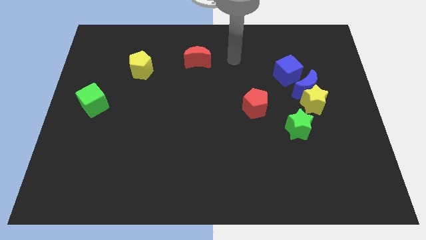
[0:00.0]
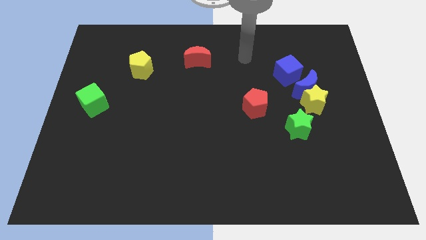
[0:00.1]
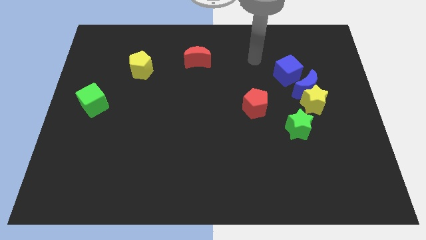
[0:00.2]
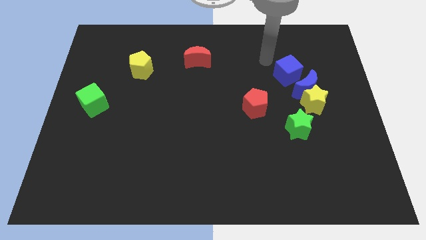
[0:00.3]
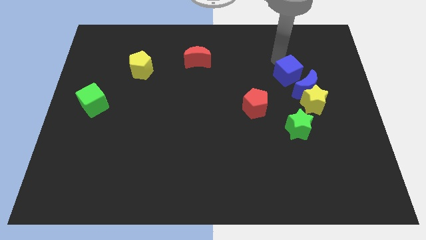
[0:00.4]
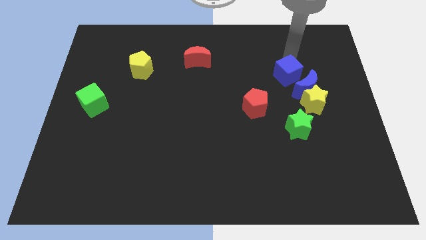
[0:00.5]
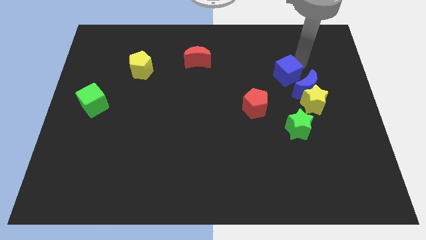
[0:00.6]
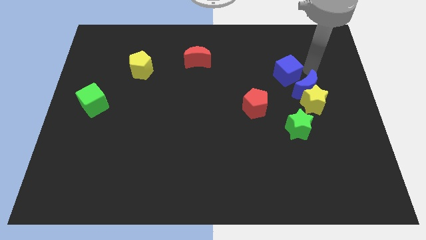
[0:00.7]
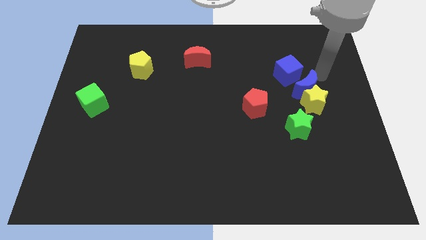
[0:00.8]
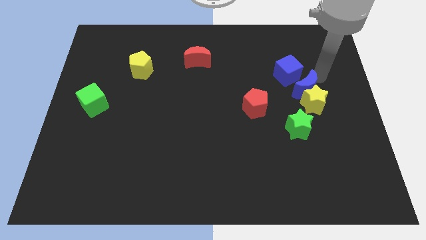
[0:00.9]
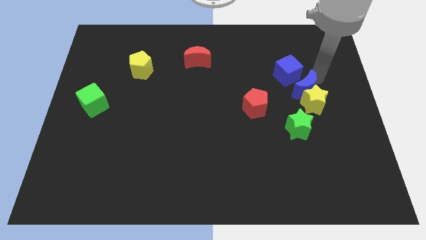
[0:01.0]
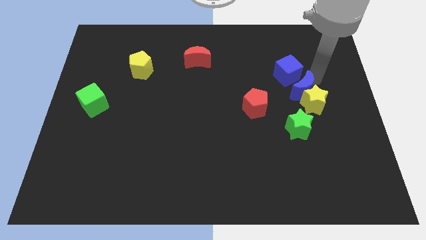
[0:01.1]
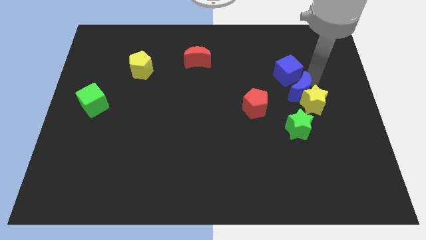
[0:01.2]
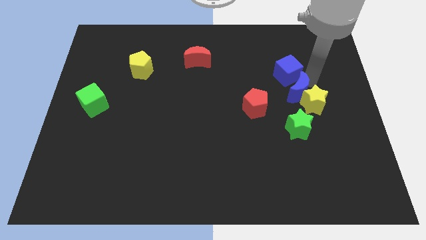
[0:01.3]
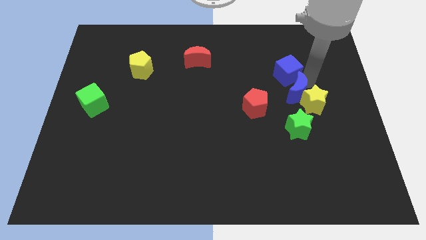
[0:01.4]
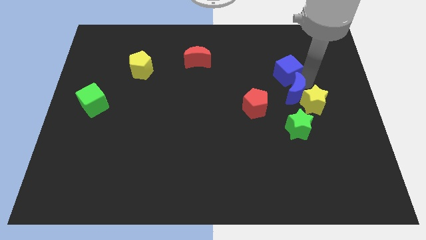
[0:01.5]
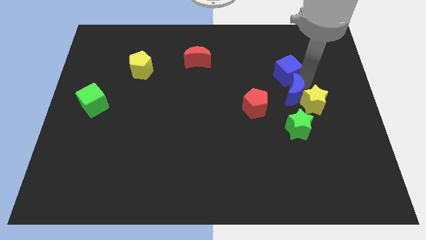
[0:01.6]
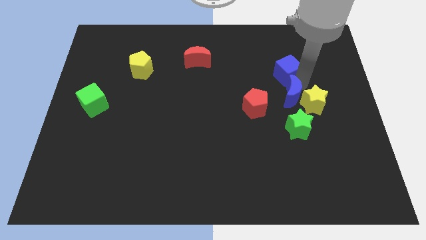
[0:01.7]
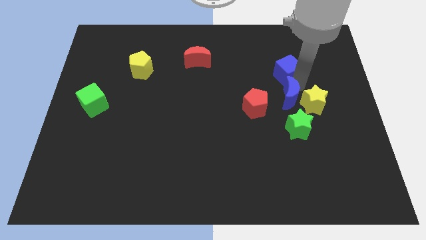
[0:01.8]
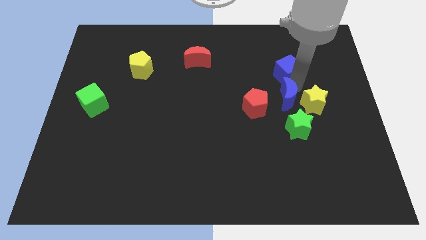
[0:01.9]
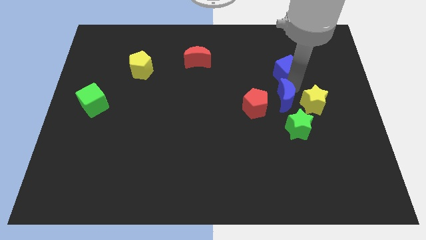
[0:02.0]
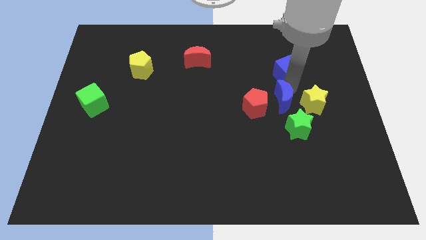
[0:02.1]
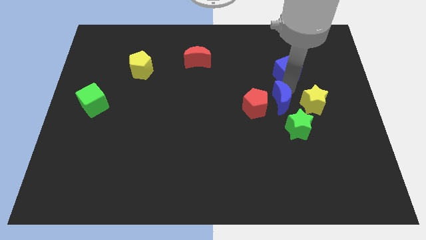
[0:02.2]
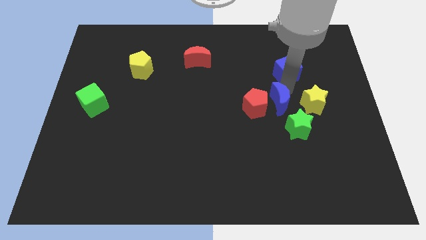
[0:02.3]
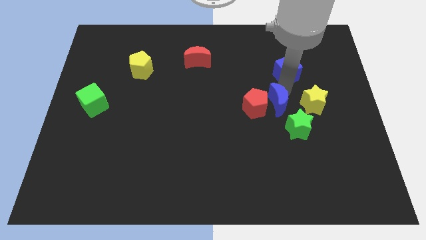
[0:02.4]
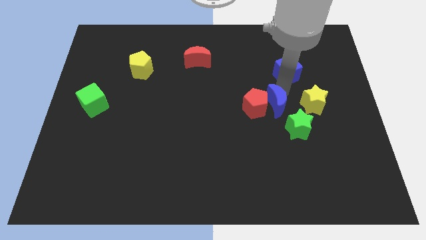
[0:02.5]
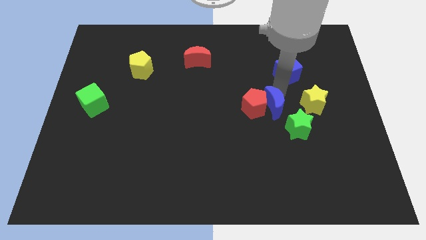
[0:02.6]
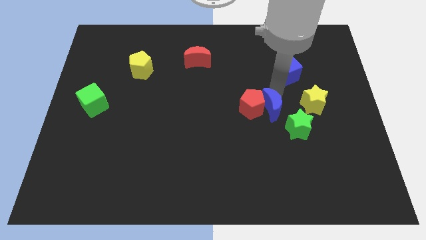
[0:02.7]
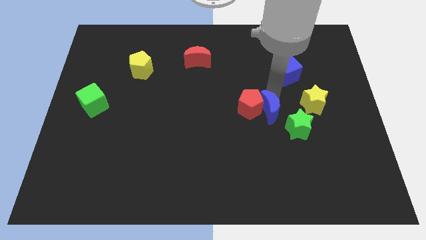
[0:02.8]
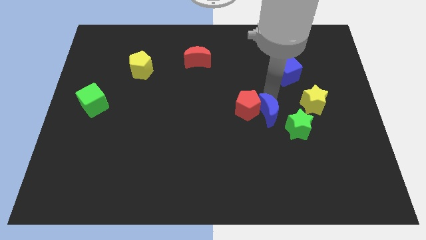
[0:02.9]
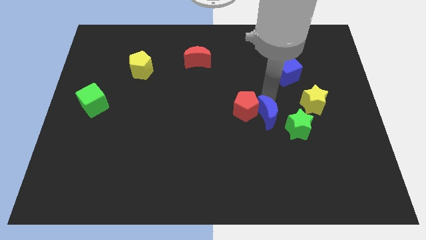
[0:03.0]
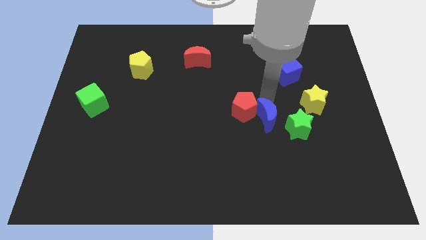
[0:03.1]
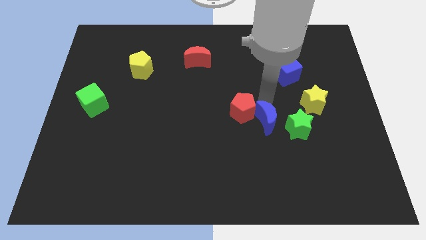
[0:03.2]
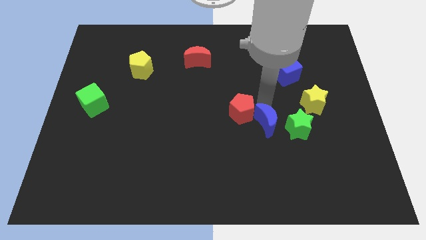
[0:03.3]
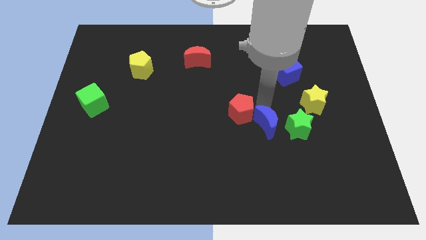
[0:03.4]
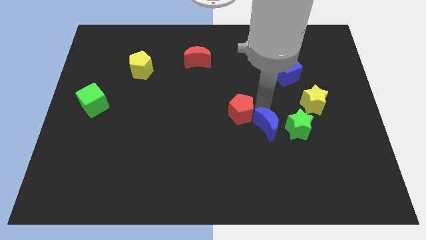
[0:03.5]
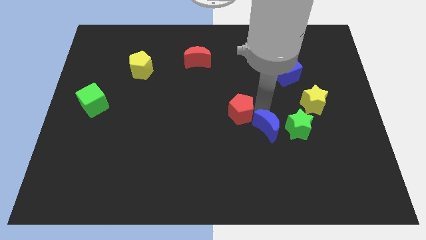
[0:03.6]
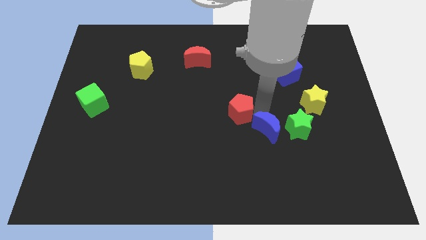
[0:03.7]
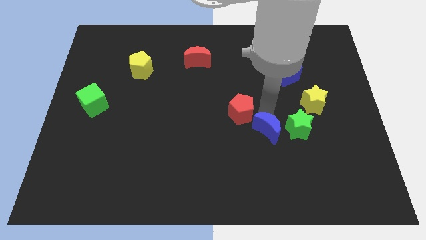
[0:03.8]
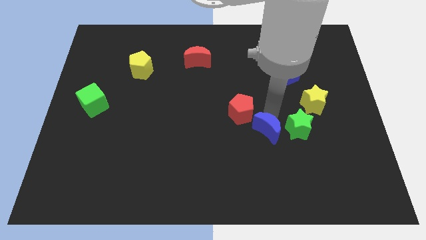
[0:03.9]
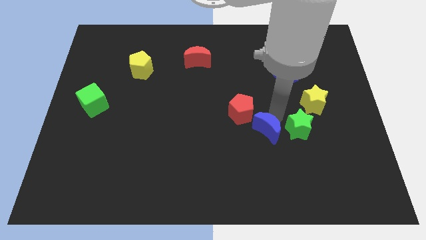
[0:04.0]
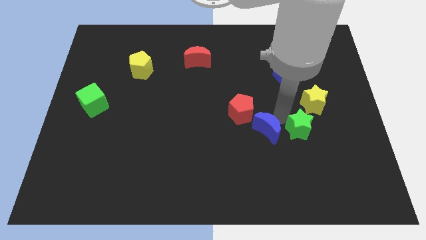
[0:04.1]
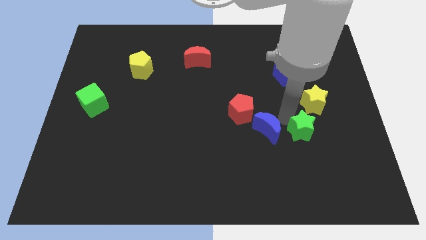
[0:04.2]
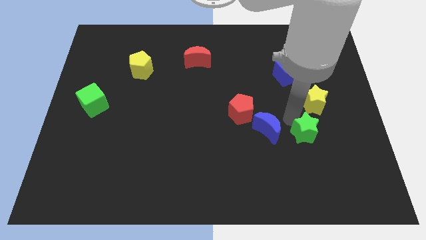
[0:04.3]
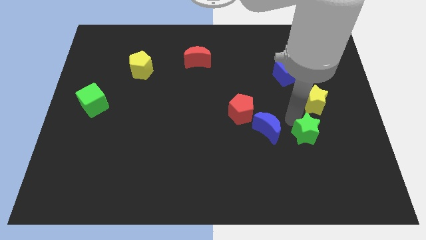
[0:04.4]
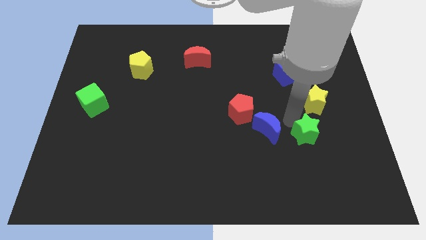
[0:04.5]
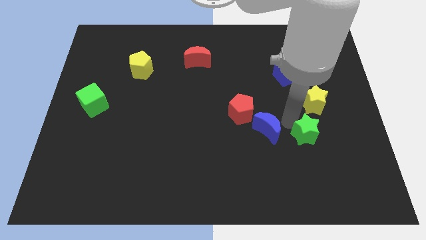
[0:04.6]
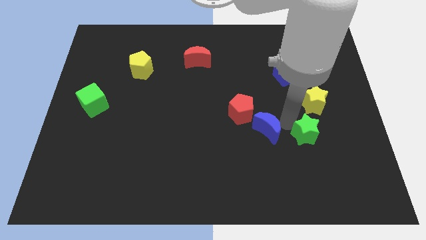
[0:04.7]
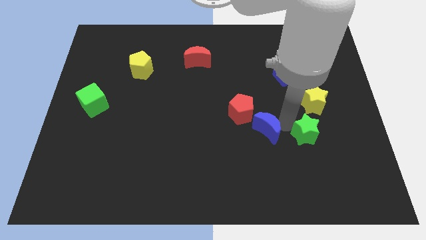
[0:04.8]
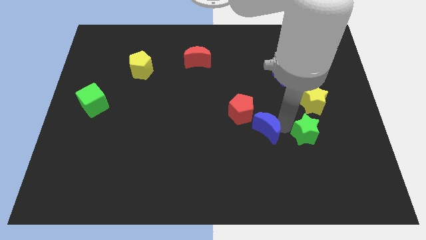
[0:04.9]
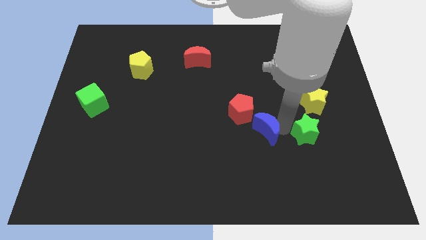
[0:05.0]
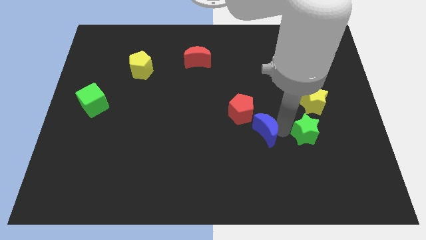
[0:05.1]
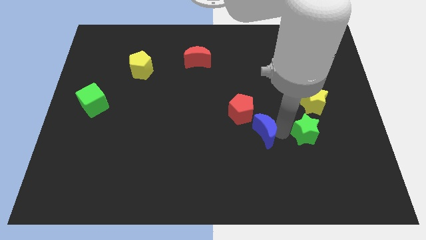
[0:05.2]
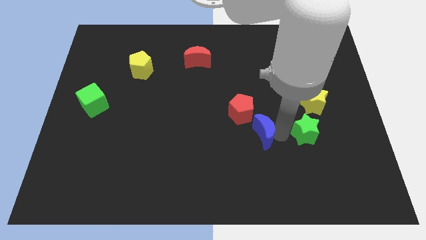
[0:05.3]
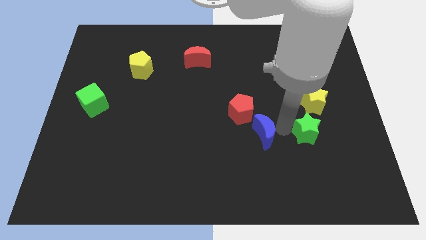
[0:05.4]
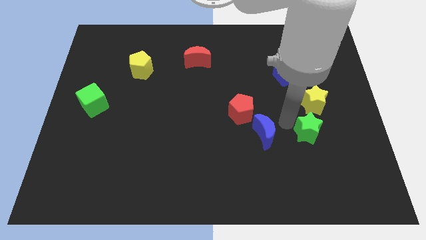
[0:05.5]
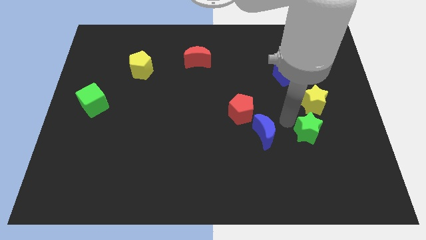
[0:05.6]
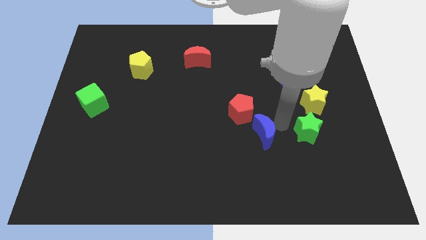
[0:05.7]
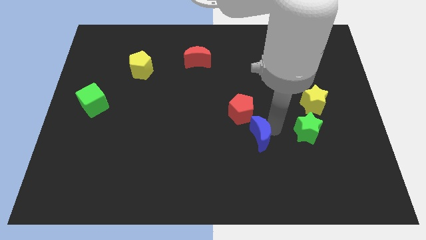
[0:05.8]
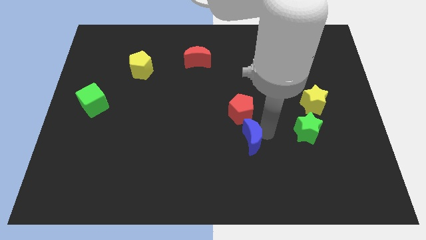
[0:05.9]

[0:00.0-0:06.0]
slide the blue moon down and to the left diagonally

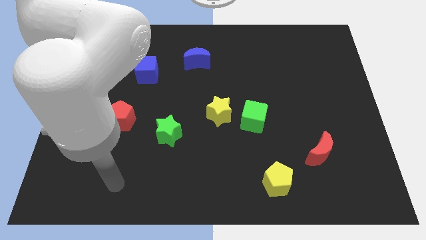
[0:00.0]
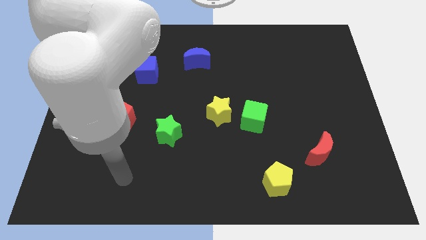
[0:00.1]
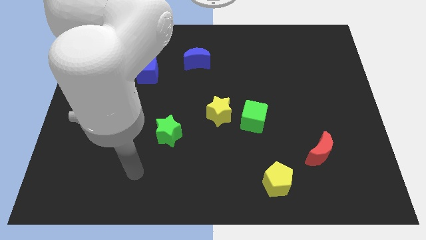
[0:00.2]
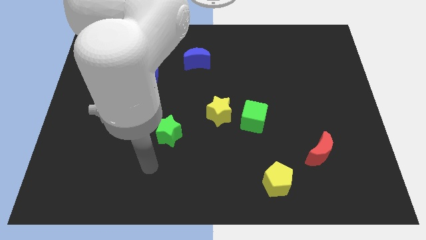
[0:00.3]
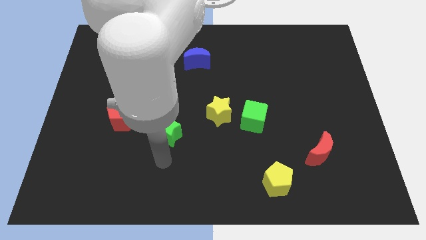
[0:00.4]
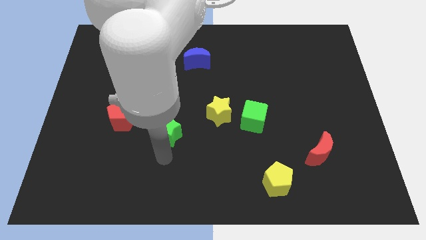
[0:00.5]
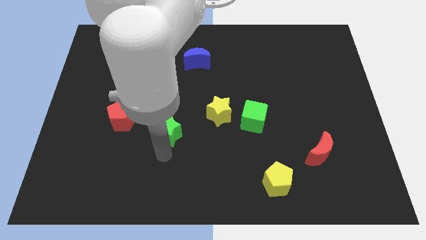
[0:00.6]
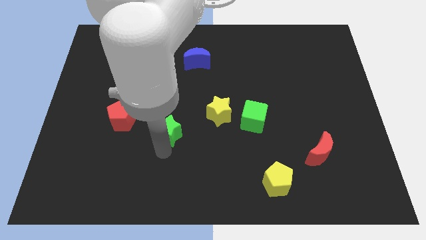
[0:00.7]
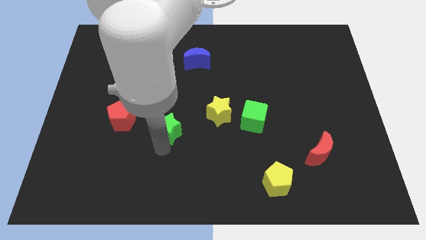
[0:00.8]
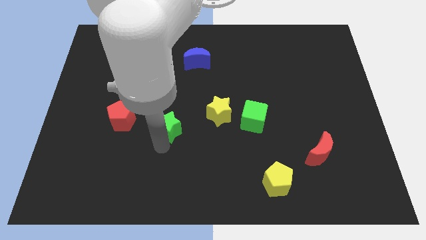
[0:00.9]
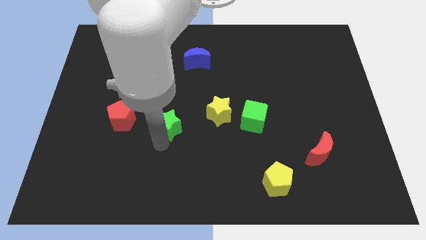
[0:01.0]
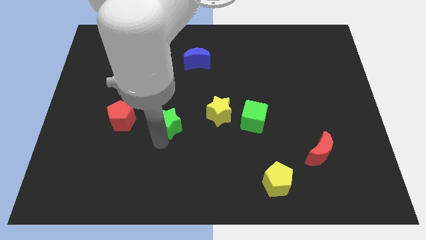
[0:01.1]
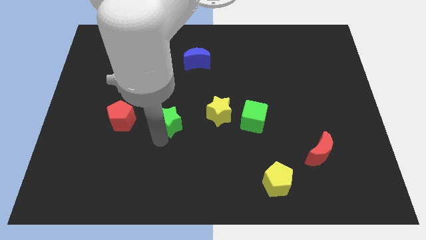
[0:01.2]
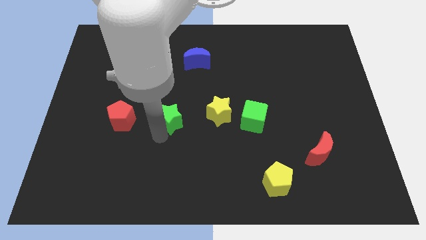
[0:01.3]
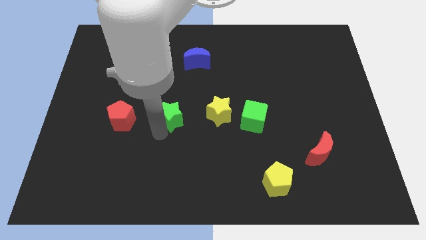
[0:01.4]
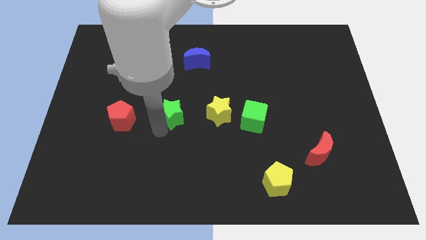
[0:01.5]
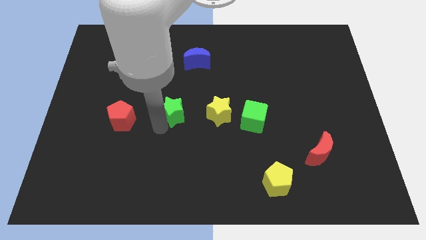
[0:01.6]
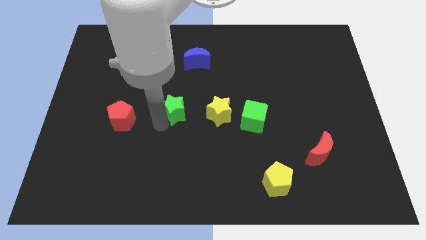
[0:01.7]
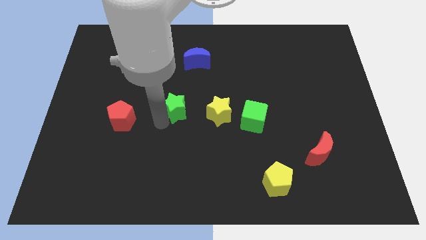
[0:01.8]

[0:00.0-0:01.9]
slide the green star somewhat up

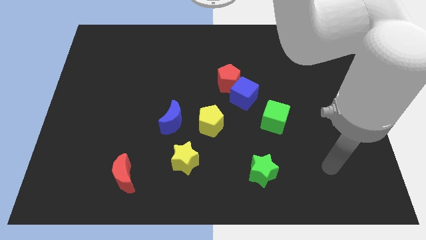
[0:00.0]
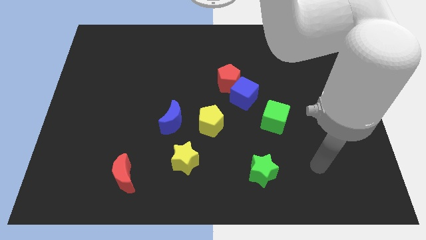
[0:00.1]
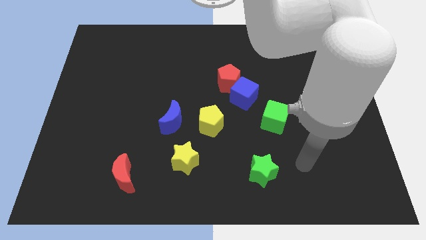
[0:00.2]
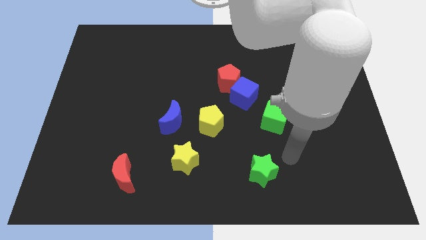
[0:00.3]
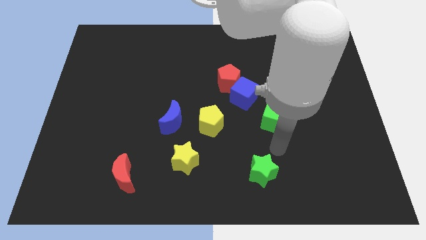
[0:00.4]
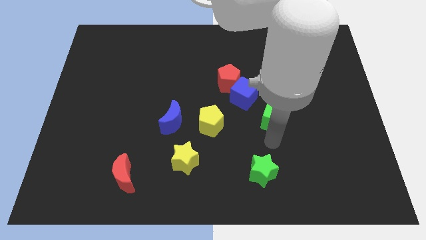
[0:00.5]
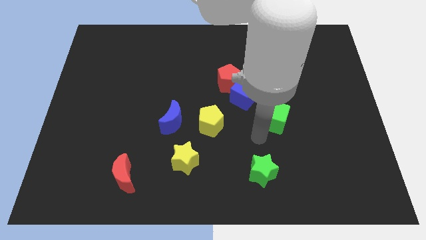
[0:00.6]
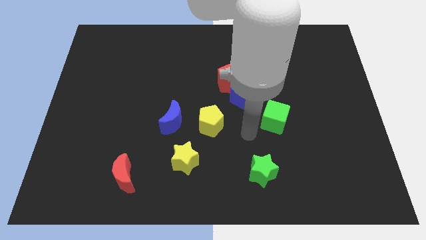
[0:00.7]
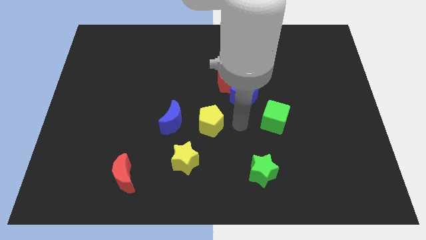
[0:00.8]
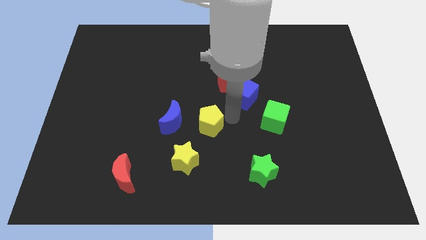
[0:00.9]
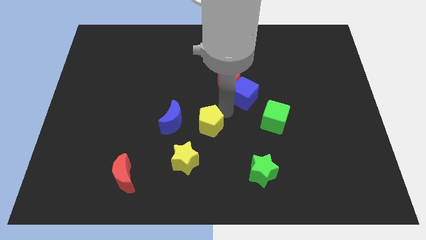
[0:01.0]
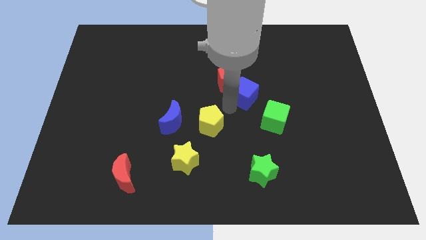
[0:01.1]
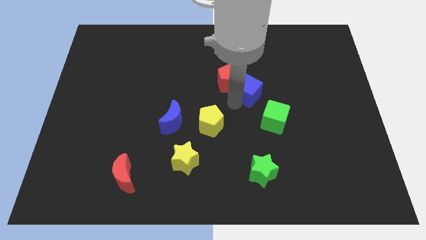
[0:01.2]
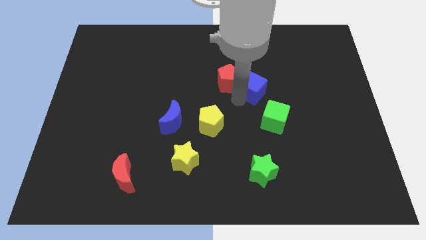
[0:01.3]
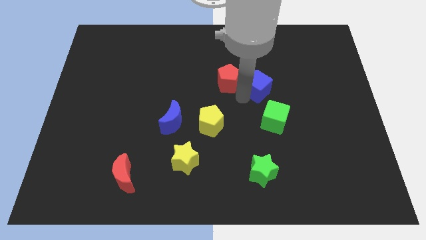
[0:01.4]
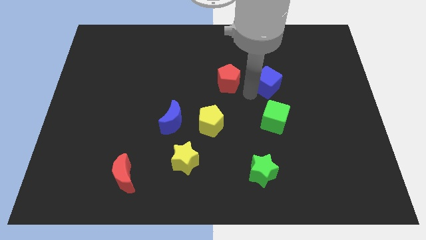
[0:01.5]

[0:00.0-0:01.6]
slide the blue cube up and then right a bit
